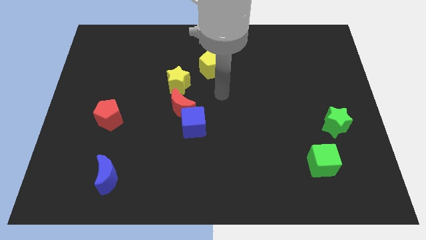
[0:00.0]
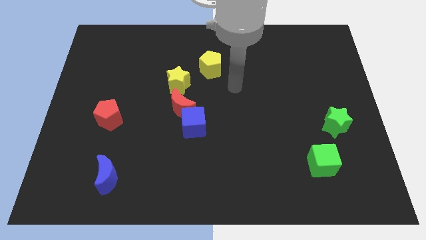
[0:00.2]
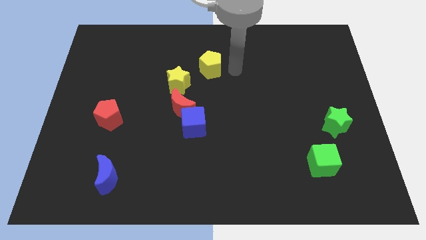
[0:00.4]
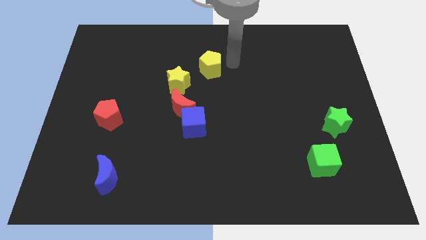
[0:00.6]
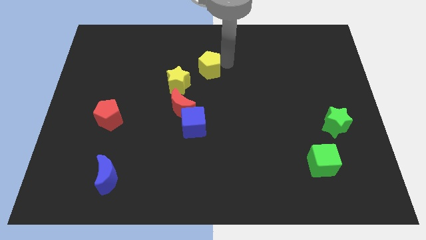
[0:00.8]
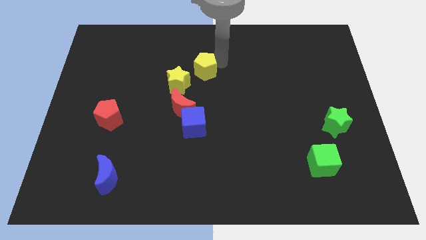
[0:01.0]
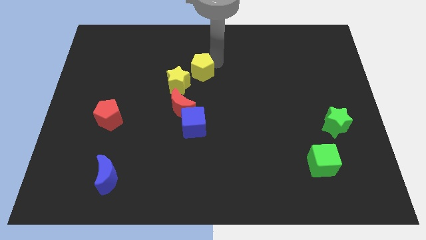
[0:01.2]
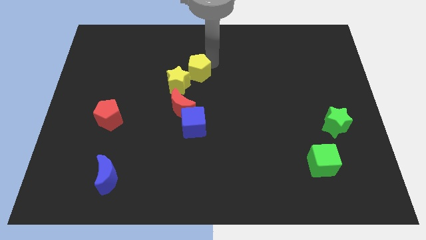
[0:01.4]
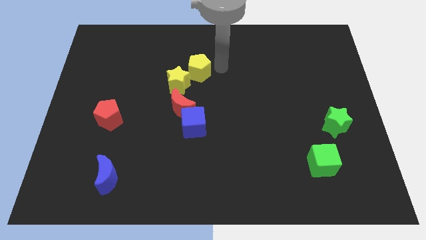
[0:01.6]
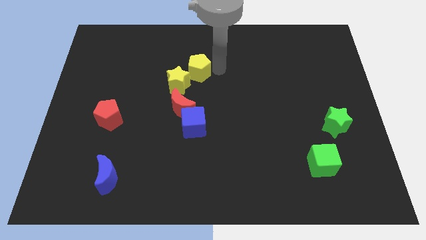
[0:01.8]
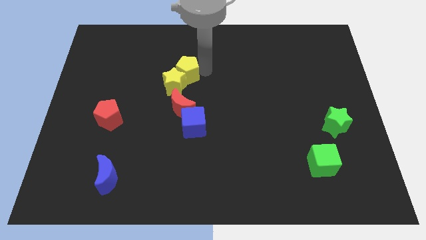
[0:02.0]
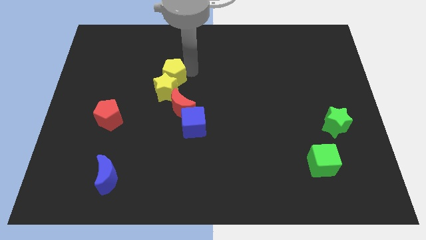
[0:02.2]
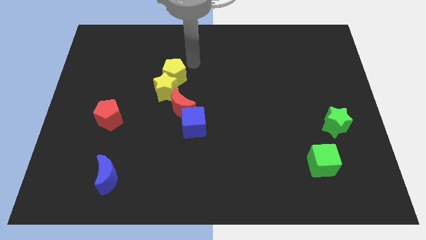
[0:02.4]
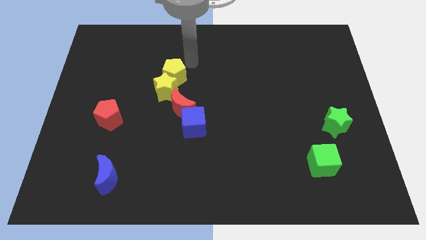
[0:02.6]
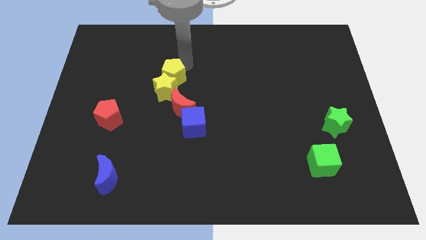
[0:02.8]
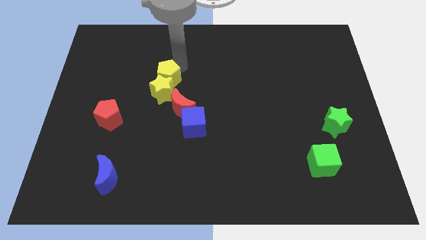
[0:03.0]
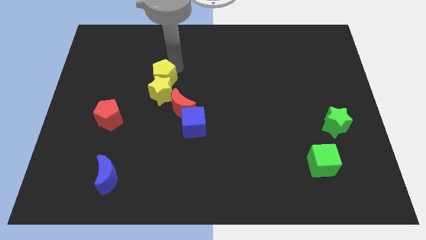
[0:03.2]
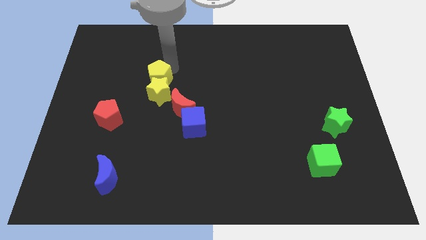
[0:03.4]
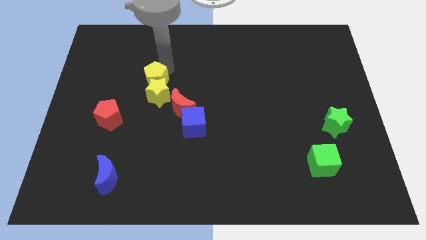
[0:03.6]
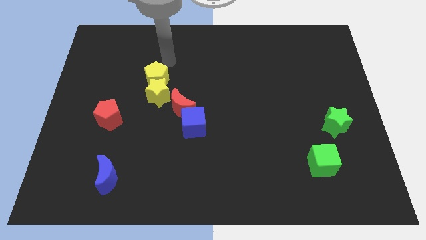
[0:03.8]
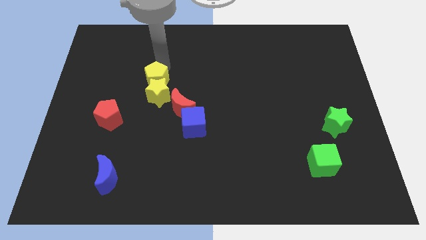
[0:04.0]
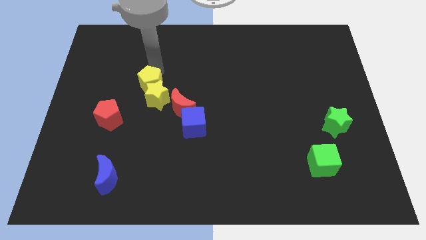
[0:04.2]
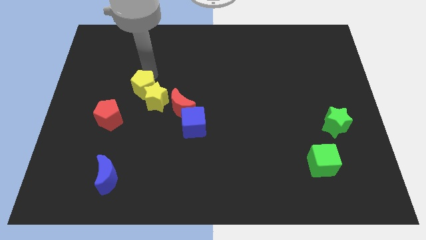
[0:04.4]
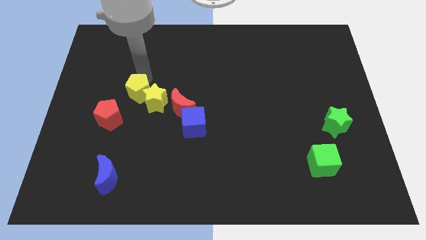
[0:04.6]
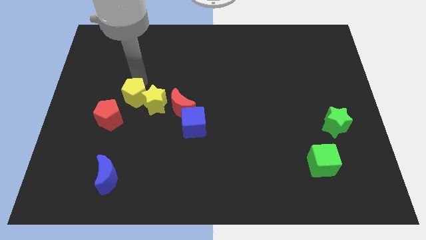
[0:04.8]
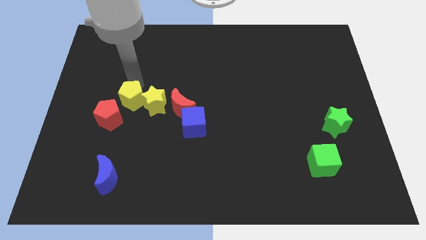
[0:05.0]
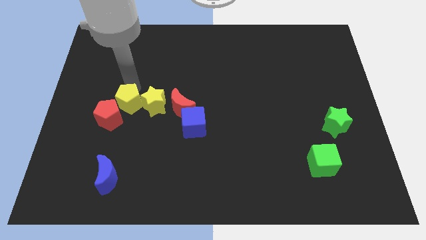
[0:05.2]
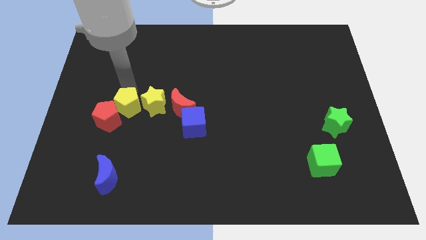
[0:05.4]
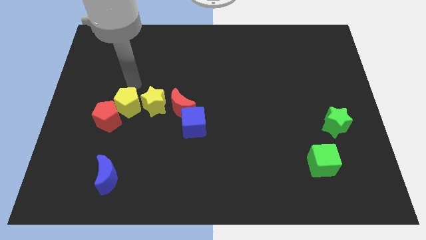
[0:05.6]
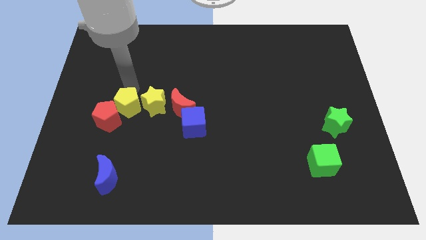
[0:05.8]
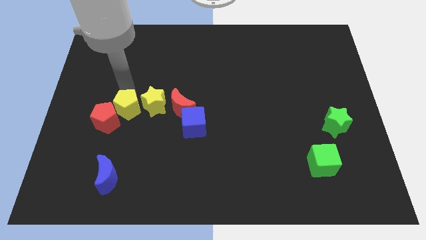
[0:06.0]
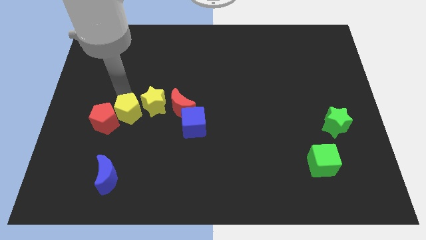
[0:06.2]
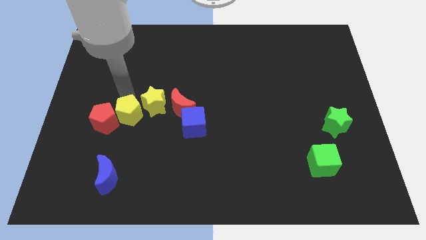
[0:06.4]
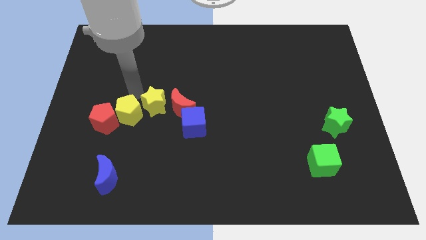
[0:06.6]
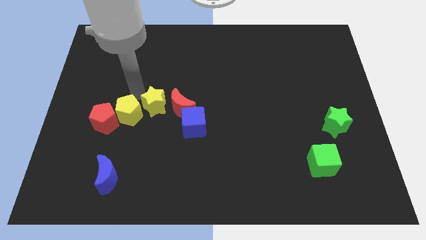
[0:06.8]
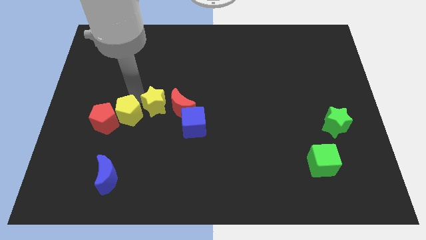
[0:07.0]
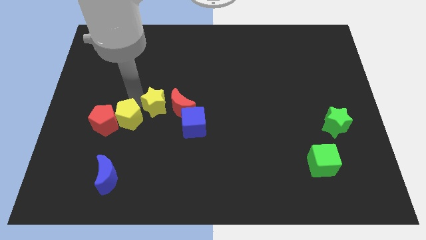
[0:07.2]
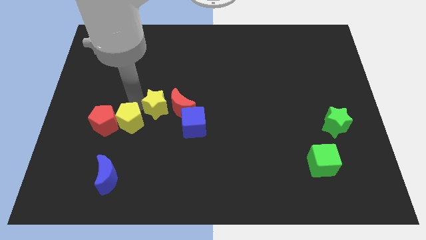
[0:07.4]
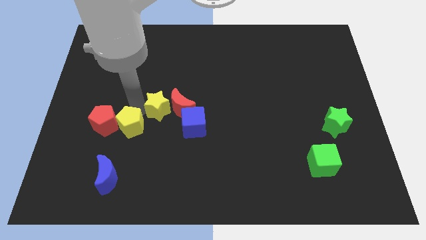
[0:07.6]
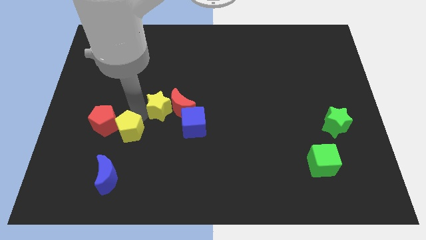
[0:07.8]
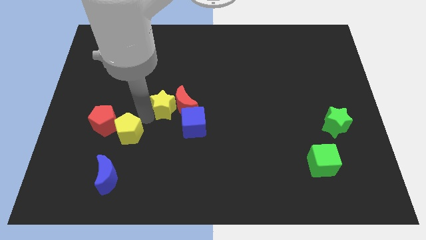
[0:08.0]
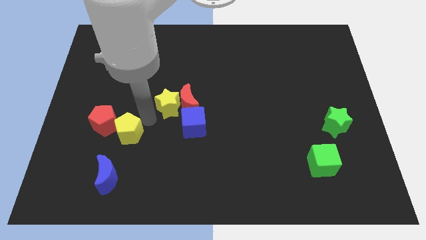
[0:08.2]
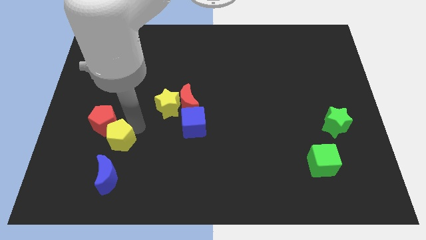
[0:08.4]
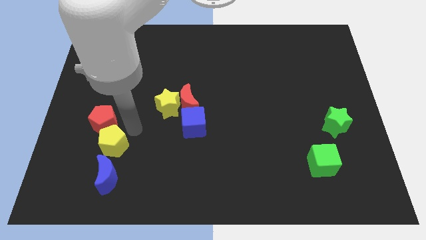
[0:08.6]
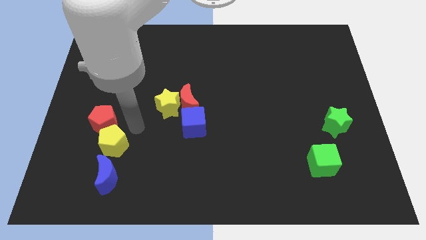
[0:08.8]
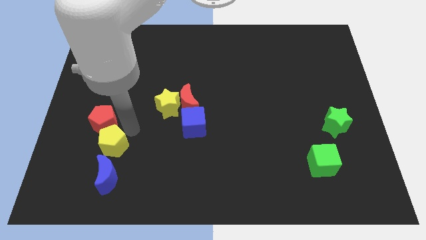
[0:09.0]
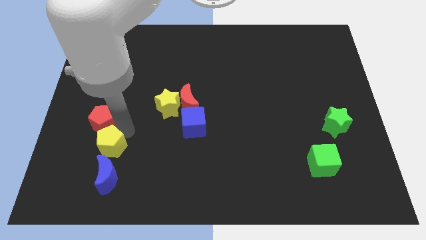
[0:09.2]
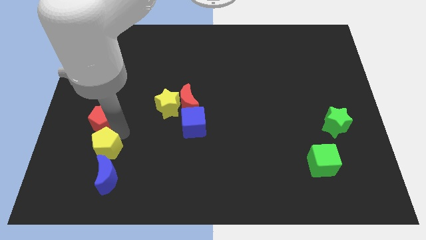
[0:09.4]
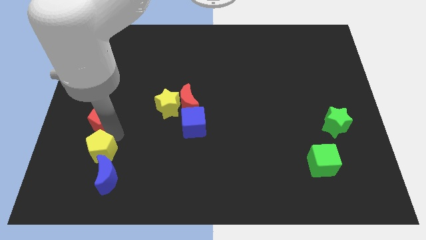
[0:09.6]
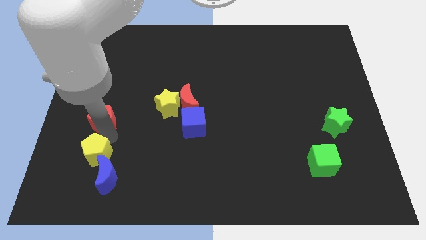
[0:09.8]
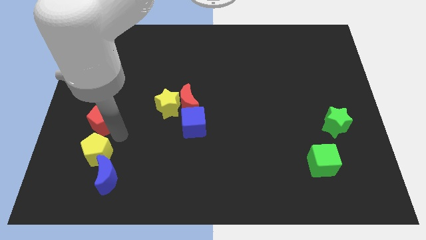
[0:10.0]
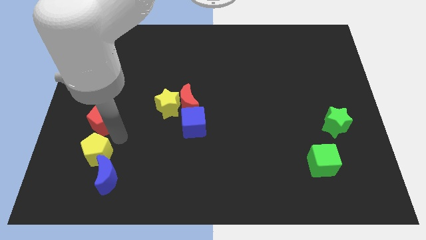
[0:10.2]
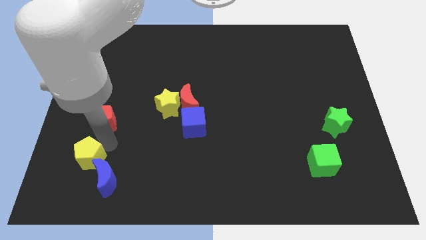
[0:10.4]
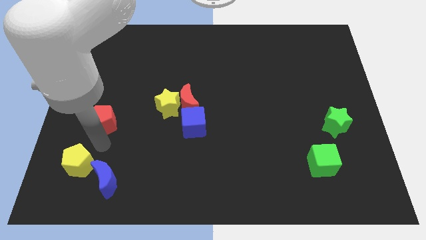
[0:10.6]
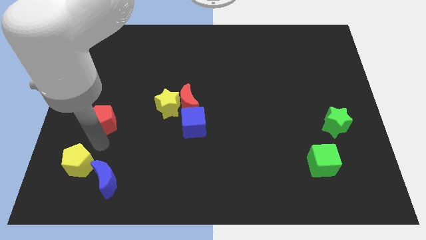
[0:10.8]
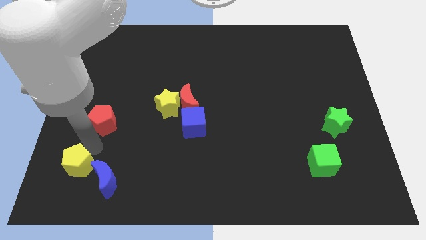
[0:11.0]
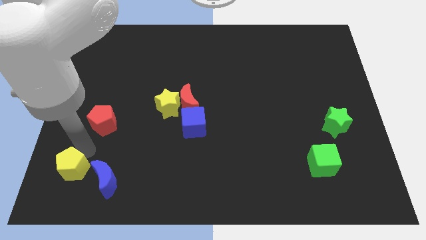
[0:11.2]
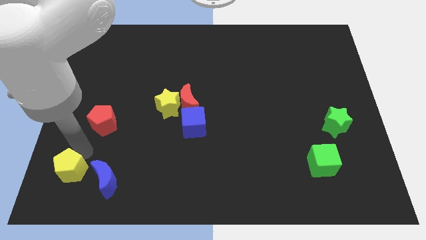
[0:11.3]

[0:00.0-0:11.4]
push the yellow pentagon to the bottom left of the board

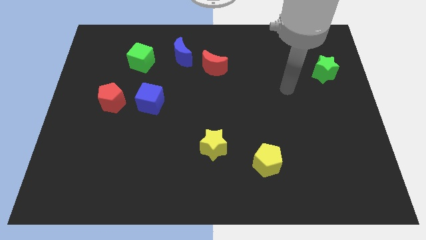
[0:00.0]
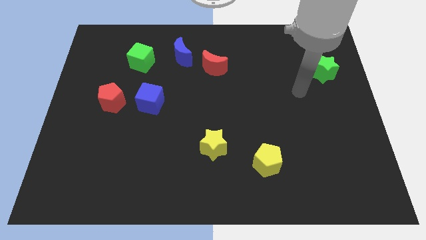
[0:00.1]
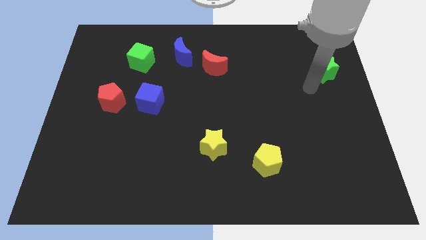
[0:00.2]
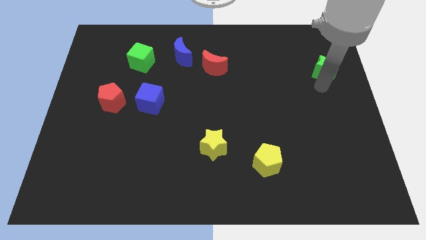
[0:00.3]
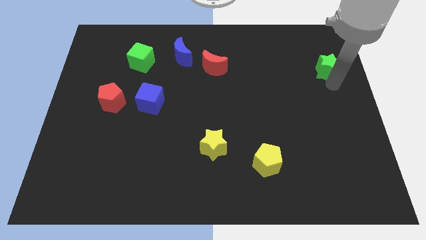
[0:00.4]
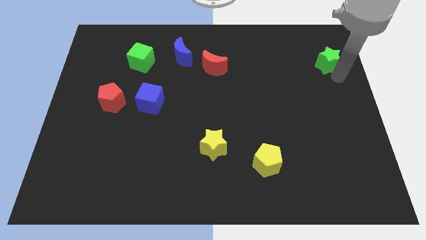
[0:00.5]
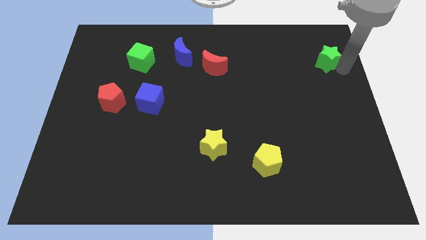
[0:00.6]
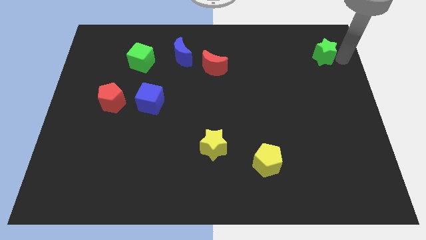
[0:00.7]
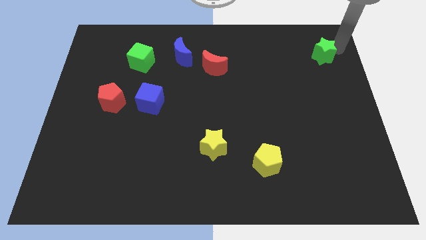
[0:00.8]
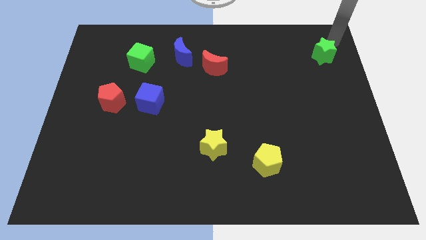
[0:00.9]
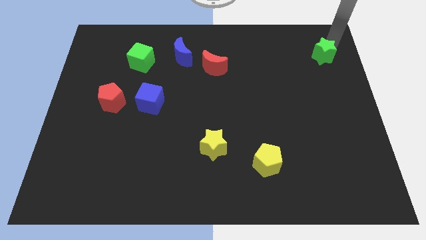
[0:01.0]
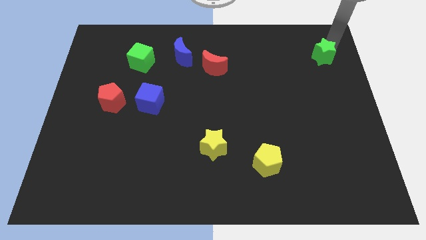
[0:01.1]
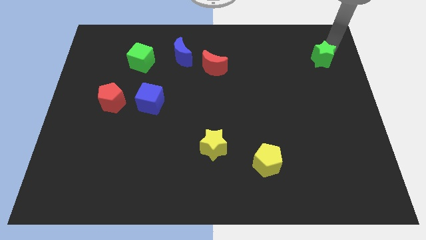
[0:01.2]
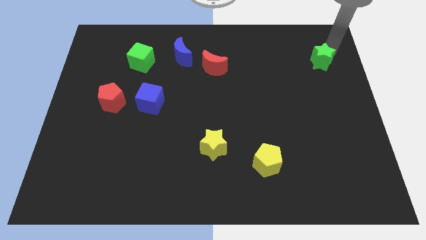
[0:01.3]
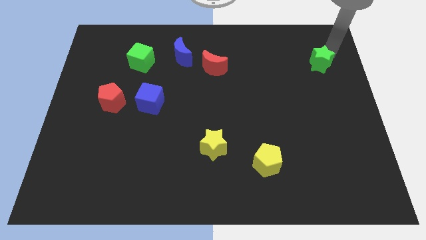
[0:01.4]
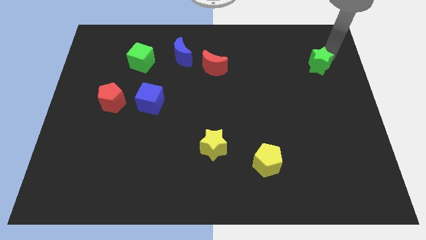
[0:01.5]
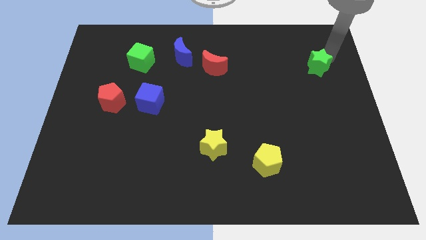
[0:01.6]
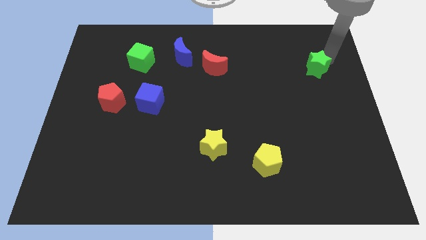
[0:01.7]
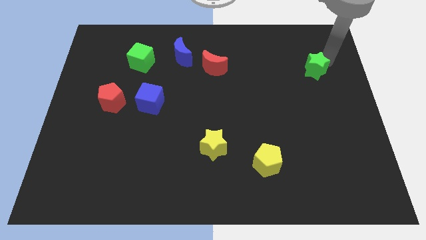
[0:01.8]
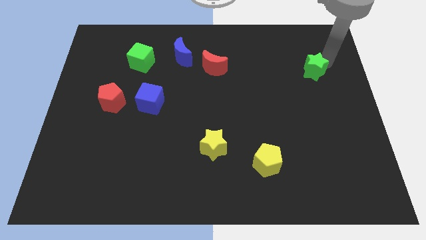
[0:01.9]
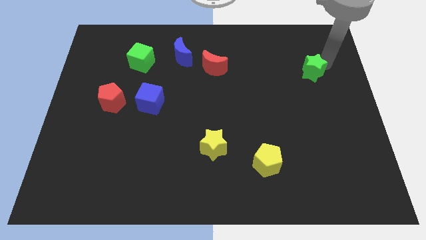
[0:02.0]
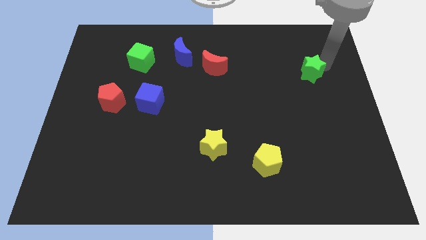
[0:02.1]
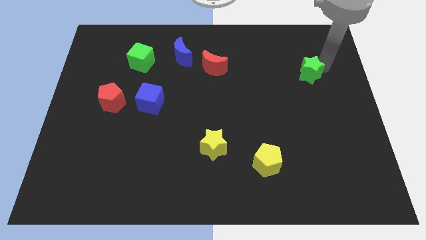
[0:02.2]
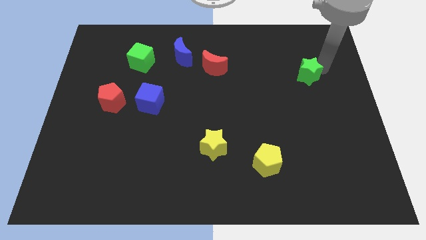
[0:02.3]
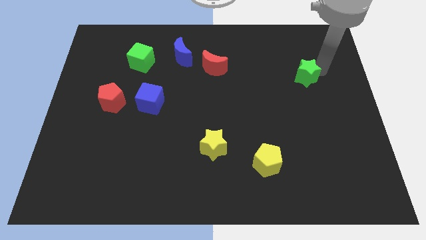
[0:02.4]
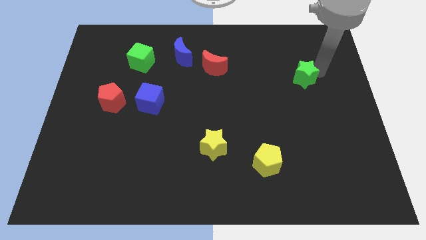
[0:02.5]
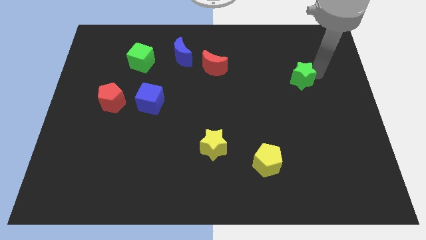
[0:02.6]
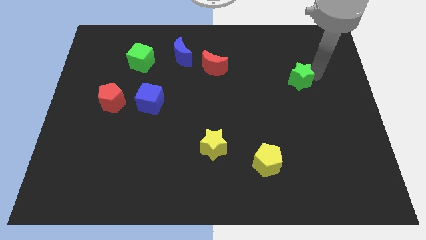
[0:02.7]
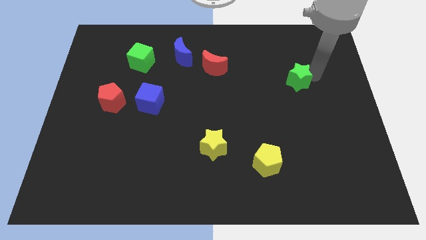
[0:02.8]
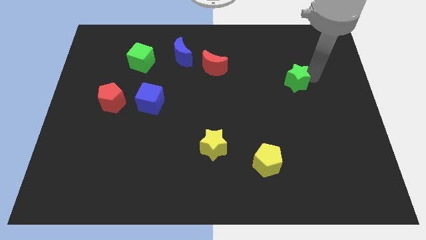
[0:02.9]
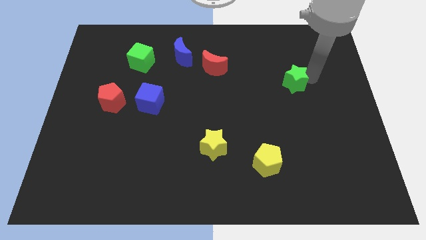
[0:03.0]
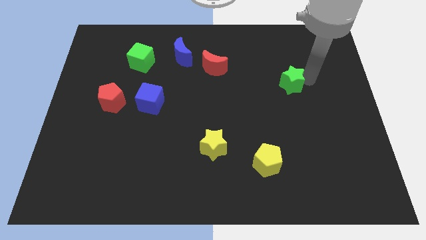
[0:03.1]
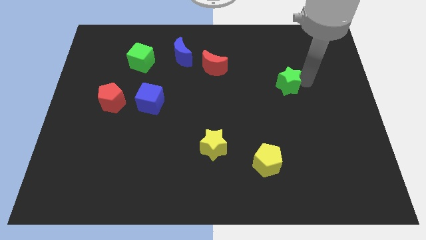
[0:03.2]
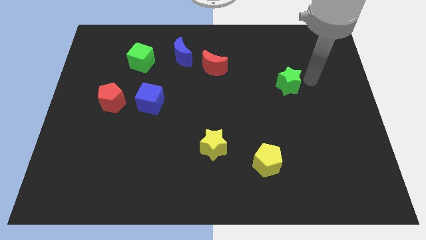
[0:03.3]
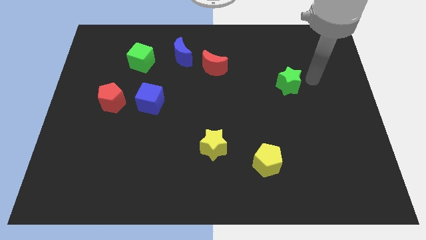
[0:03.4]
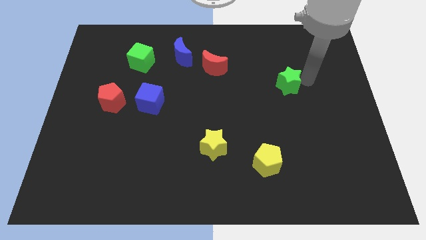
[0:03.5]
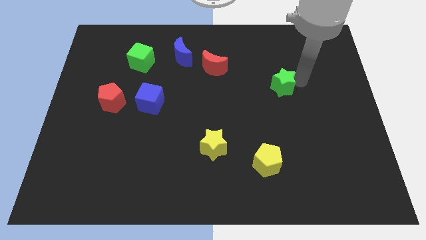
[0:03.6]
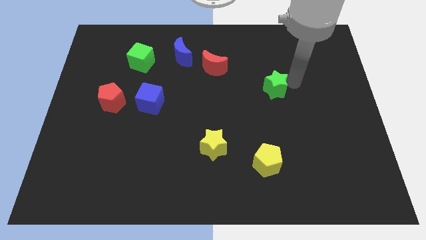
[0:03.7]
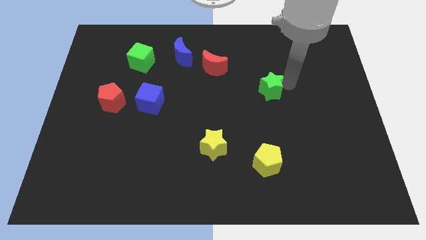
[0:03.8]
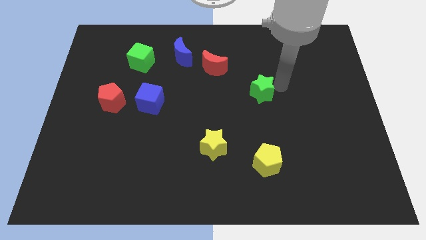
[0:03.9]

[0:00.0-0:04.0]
put the green star to the middle
